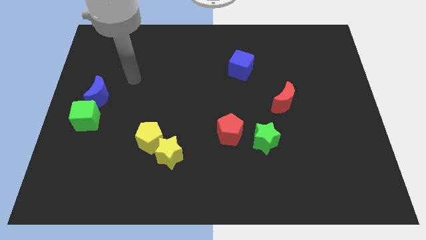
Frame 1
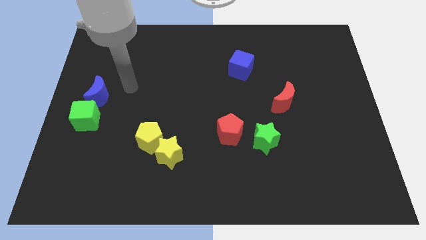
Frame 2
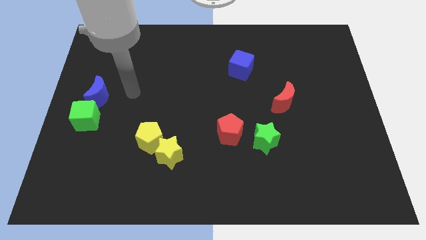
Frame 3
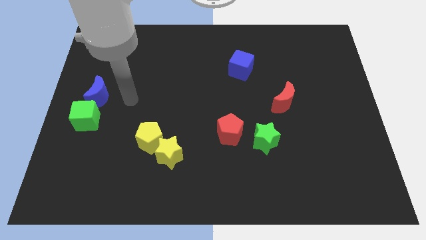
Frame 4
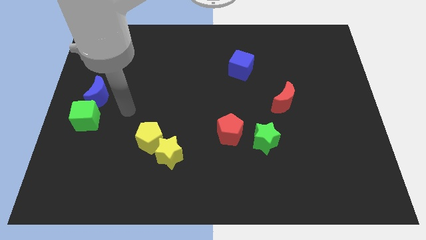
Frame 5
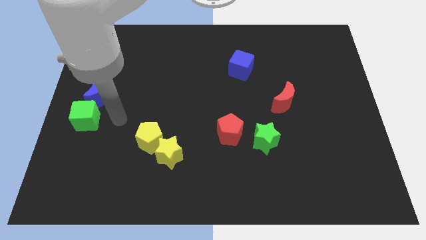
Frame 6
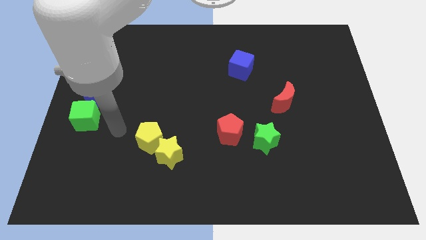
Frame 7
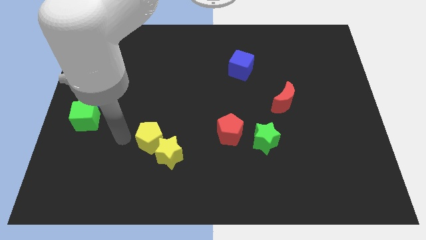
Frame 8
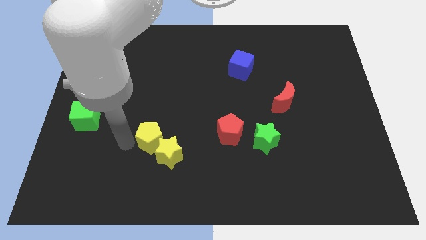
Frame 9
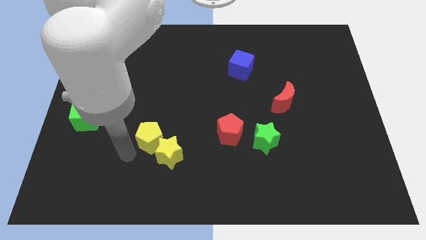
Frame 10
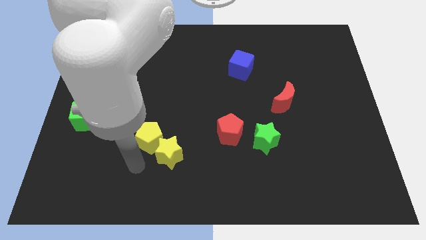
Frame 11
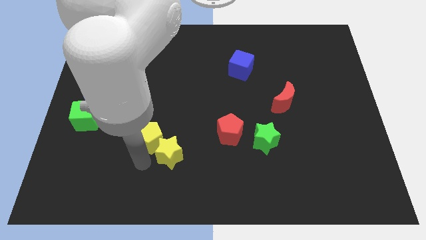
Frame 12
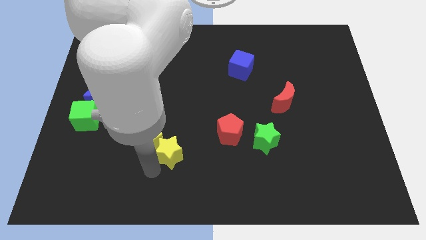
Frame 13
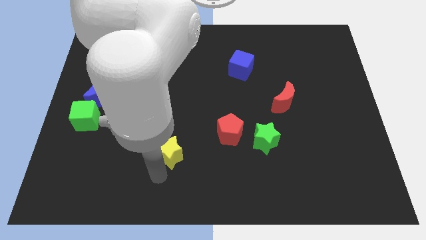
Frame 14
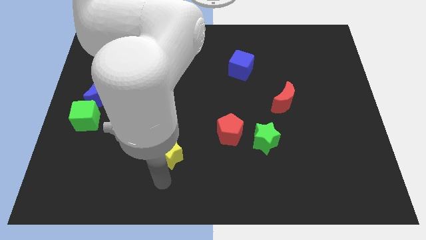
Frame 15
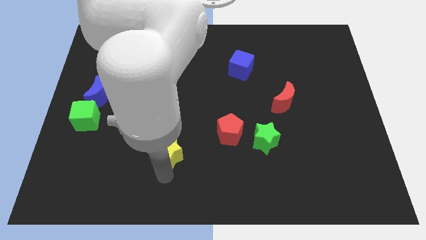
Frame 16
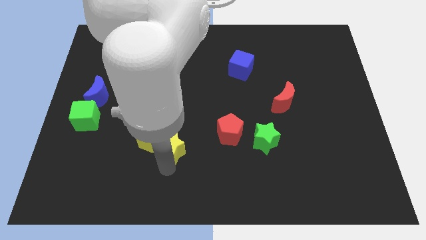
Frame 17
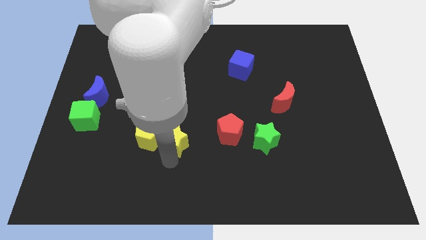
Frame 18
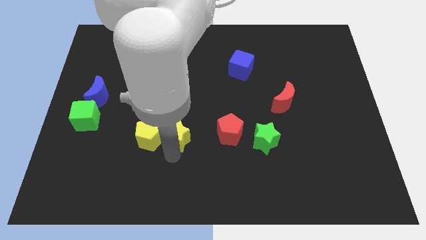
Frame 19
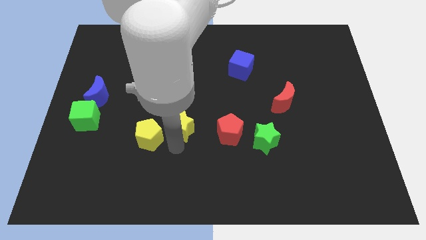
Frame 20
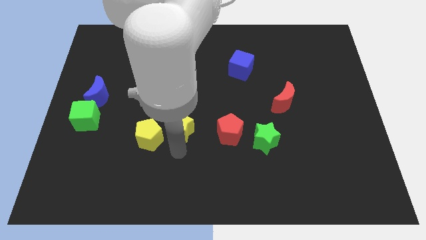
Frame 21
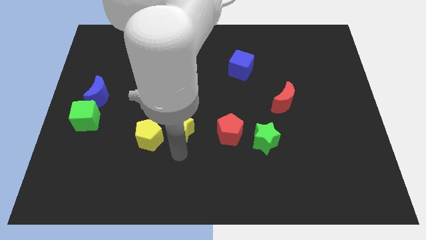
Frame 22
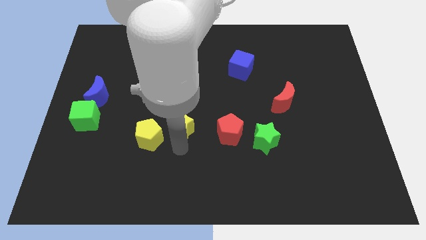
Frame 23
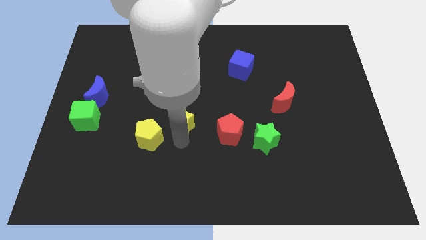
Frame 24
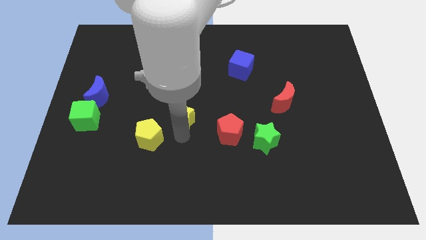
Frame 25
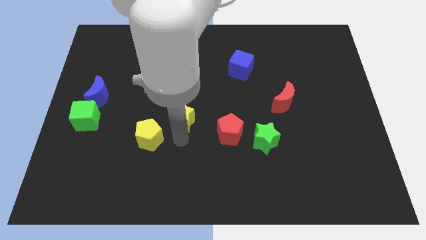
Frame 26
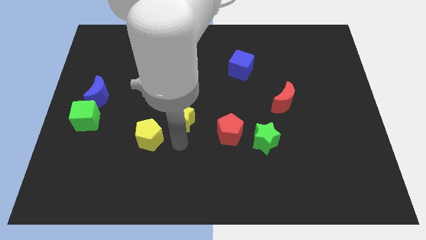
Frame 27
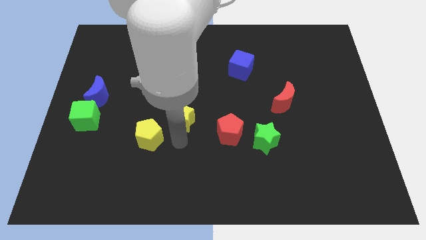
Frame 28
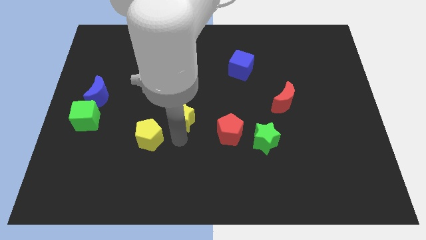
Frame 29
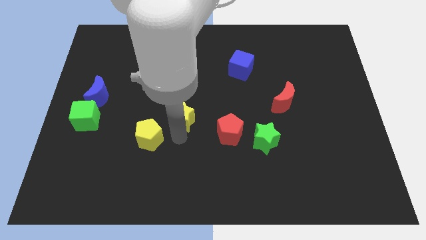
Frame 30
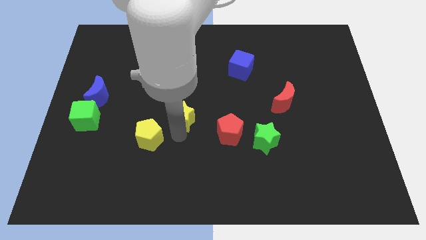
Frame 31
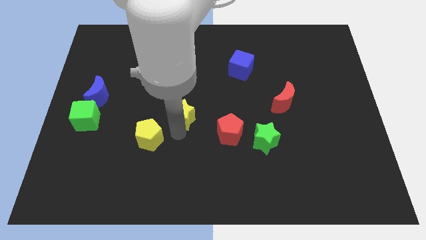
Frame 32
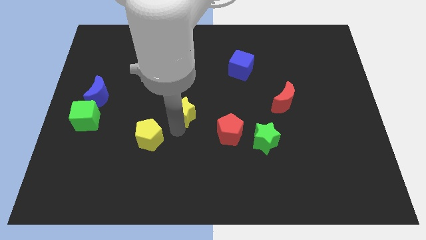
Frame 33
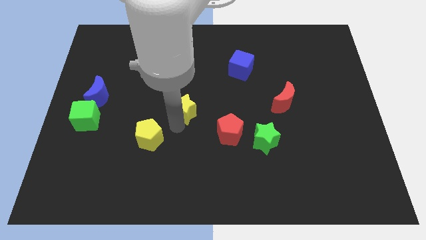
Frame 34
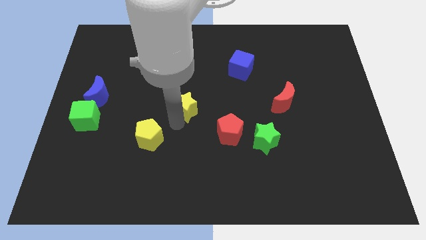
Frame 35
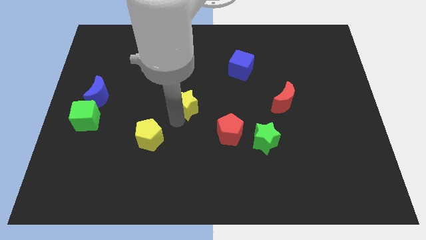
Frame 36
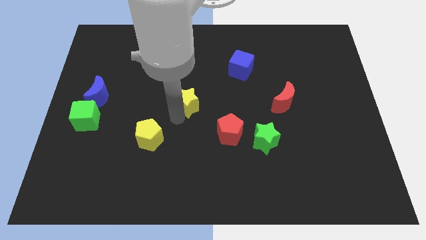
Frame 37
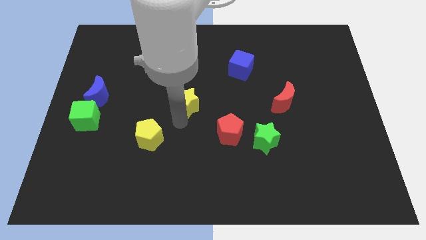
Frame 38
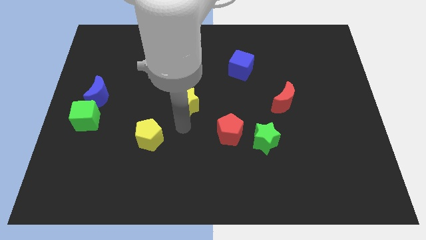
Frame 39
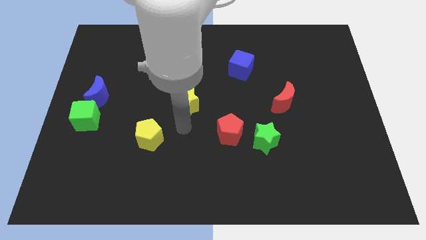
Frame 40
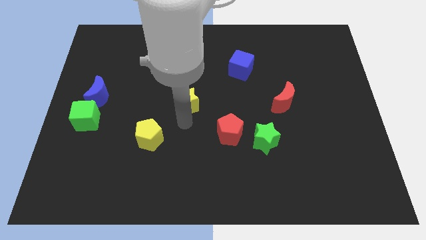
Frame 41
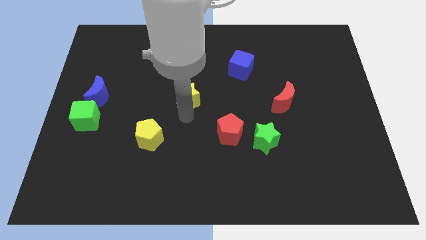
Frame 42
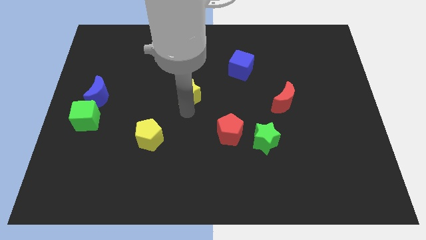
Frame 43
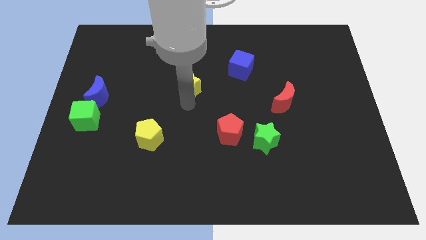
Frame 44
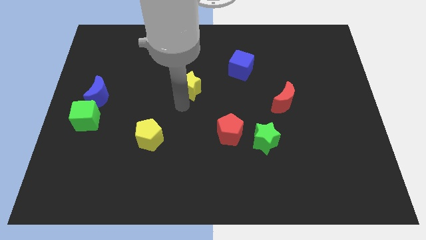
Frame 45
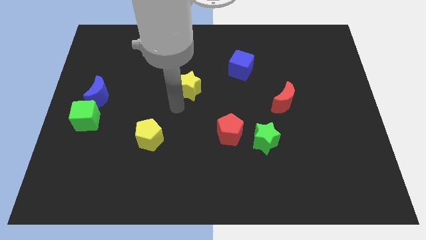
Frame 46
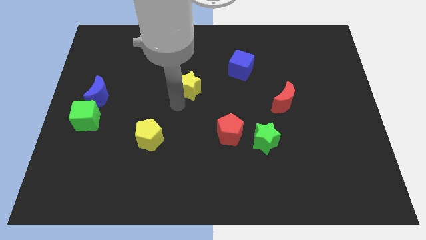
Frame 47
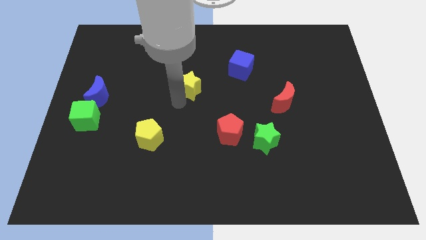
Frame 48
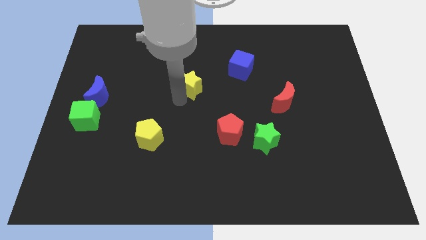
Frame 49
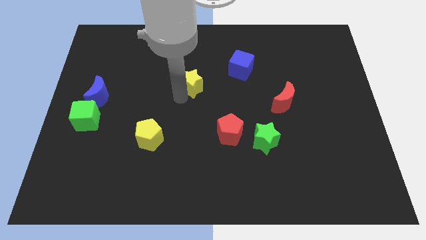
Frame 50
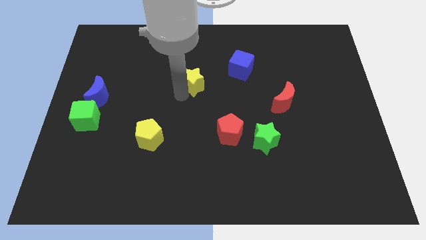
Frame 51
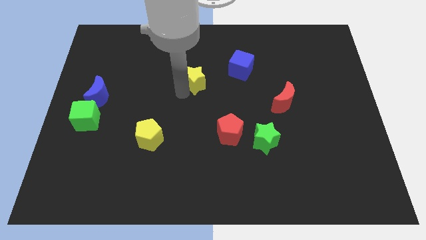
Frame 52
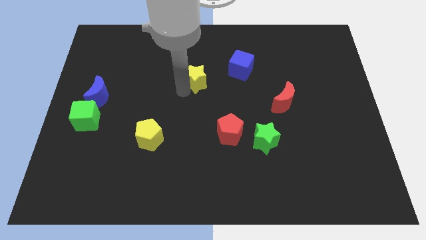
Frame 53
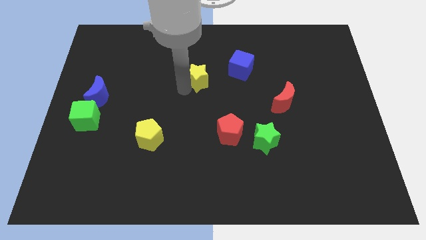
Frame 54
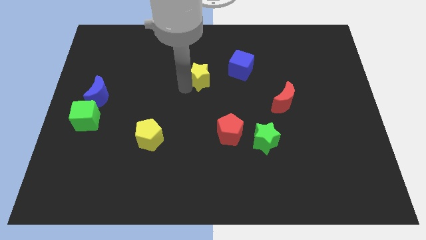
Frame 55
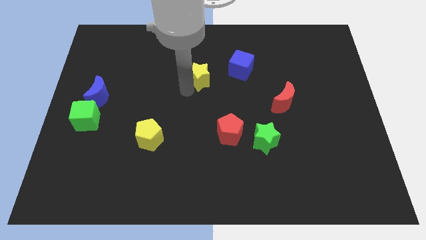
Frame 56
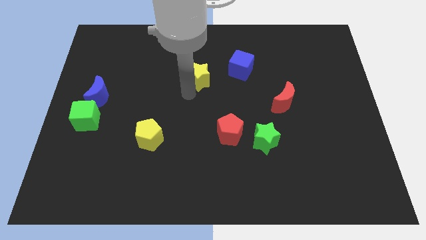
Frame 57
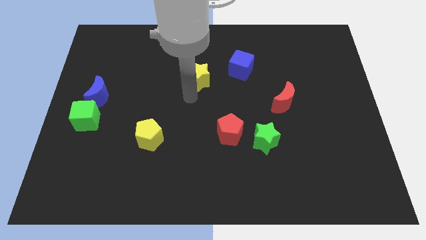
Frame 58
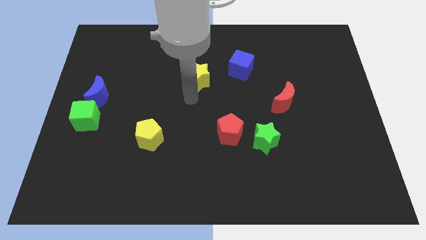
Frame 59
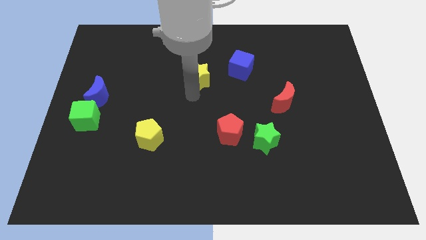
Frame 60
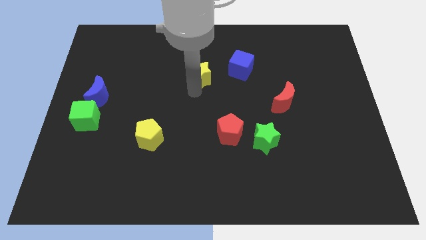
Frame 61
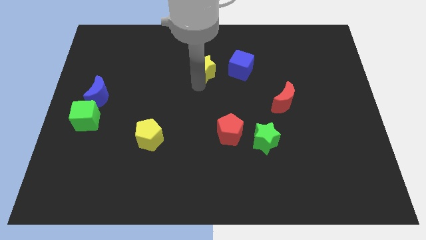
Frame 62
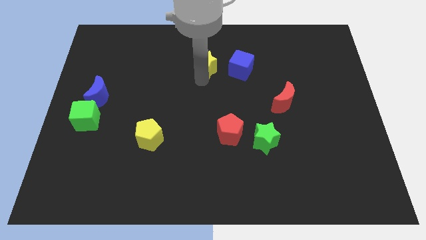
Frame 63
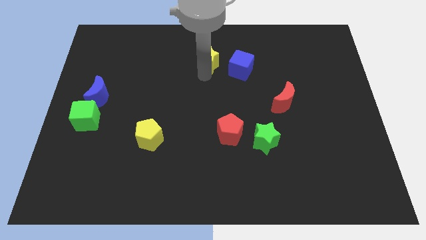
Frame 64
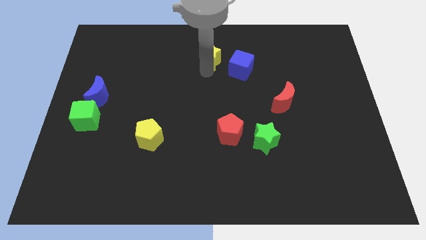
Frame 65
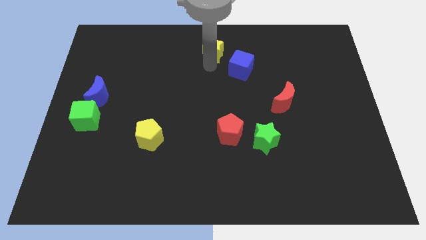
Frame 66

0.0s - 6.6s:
put the yellow star to the top side
